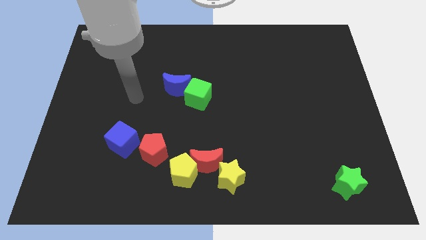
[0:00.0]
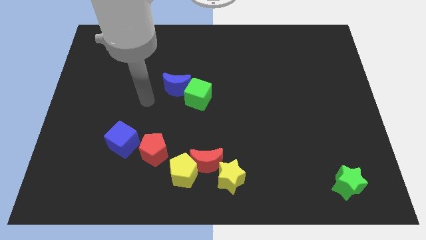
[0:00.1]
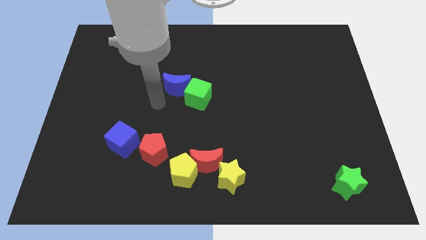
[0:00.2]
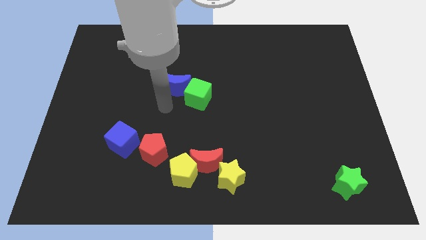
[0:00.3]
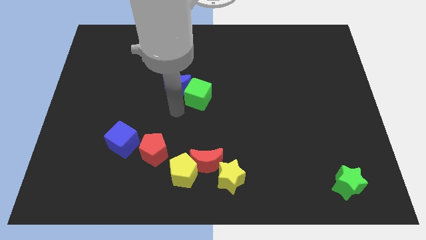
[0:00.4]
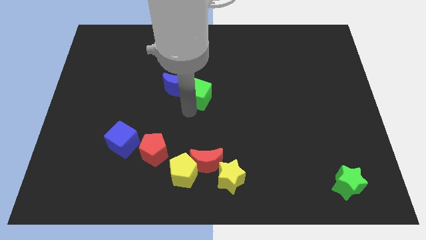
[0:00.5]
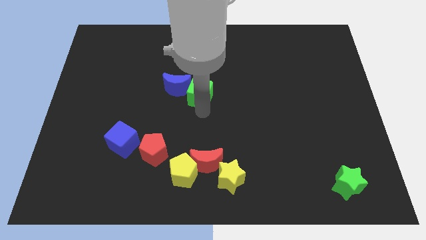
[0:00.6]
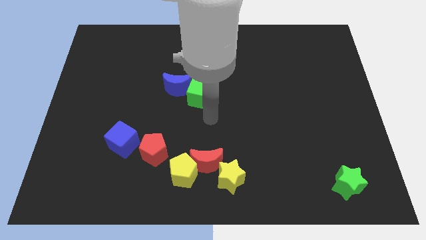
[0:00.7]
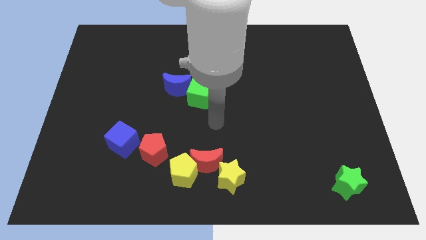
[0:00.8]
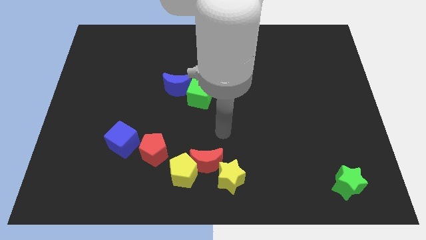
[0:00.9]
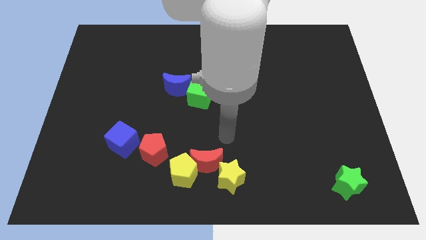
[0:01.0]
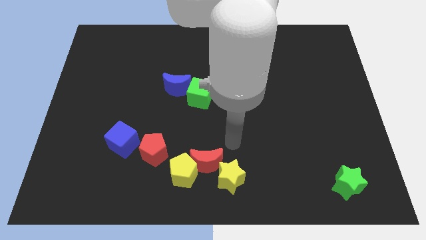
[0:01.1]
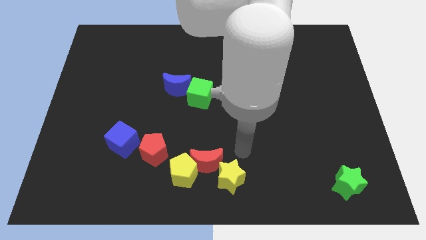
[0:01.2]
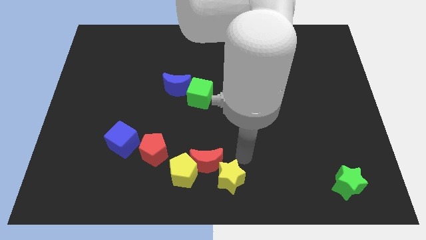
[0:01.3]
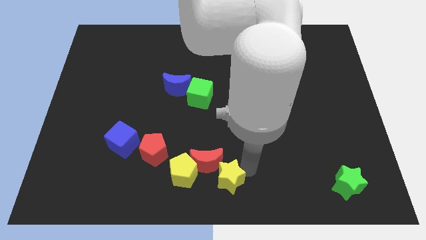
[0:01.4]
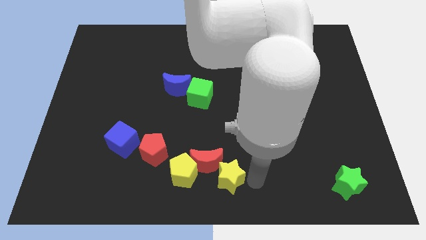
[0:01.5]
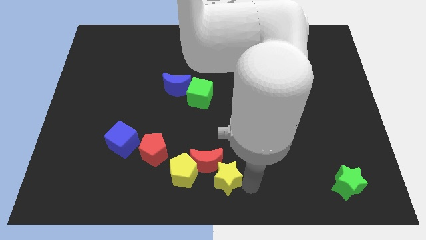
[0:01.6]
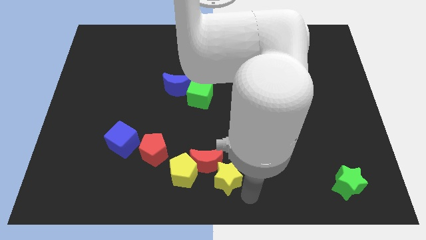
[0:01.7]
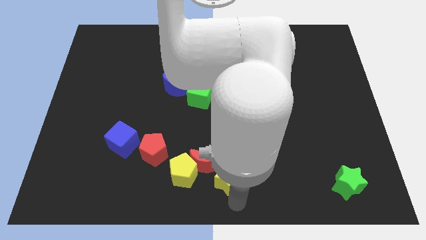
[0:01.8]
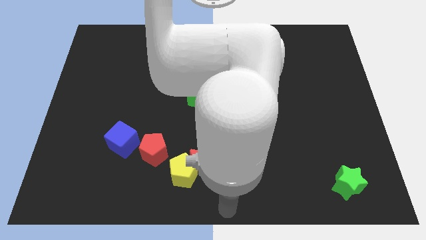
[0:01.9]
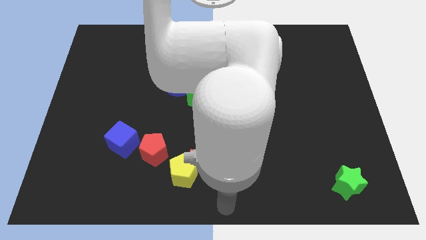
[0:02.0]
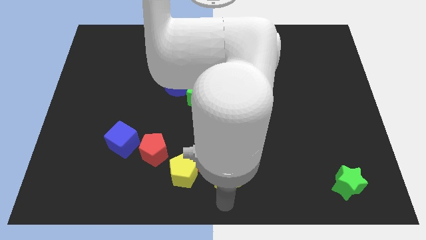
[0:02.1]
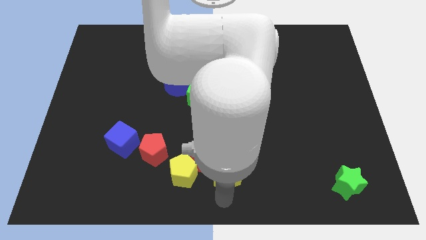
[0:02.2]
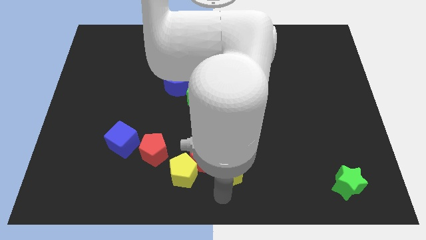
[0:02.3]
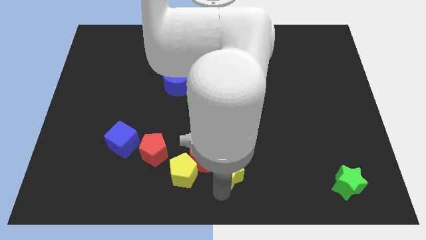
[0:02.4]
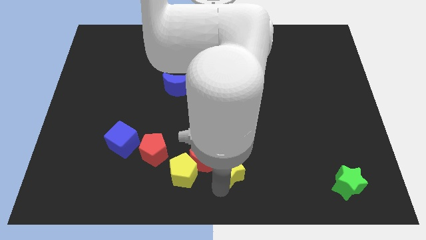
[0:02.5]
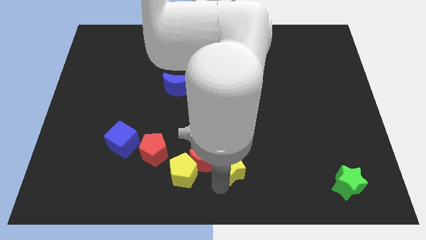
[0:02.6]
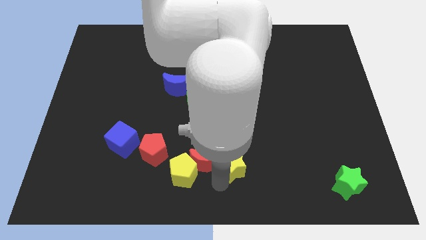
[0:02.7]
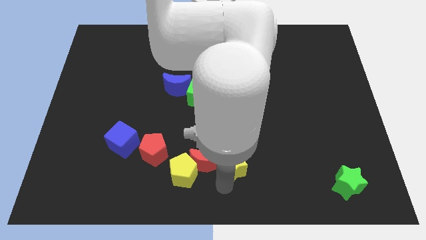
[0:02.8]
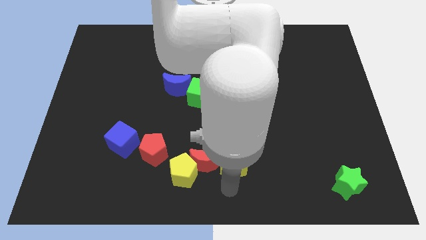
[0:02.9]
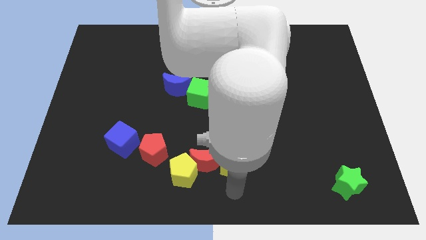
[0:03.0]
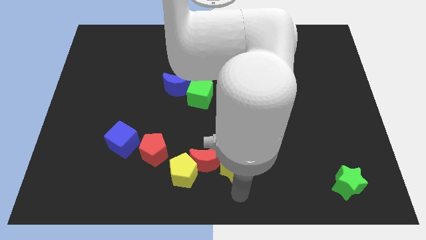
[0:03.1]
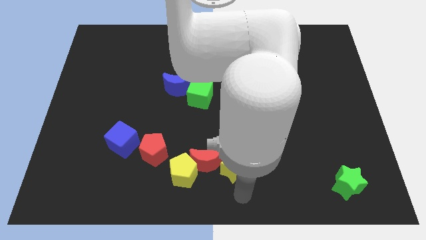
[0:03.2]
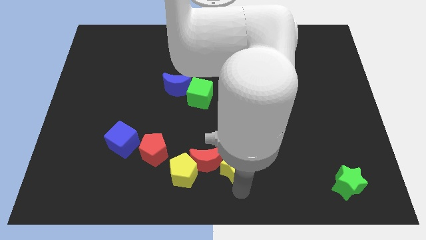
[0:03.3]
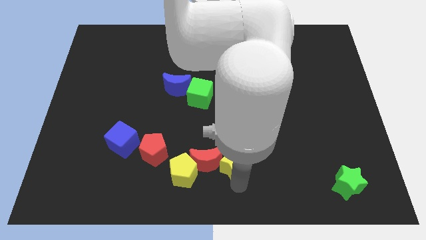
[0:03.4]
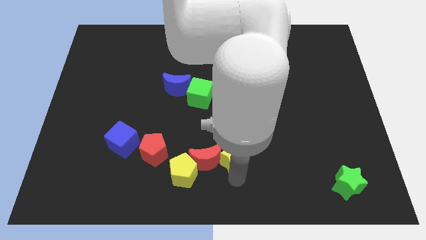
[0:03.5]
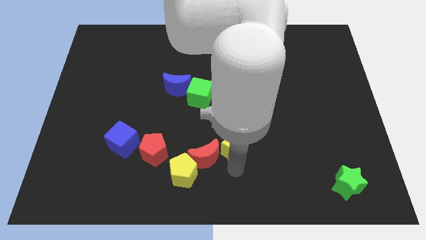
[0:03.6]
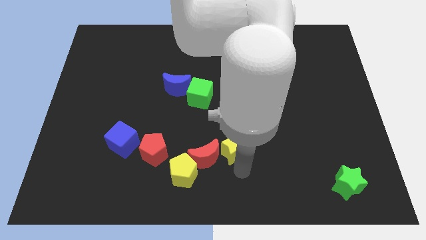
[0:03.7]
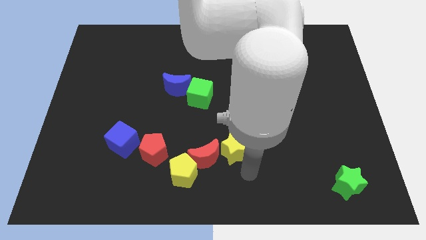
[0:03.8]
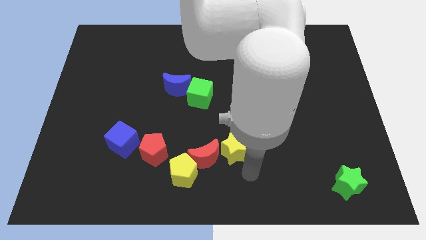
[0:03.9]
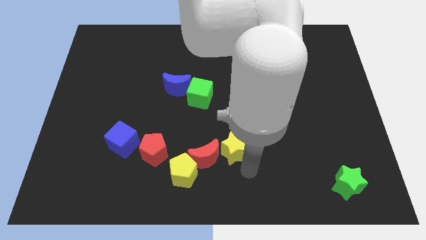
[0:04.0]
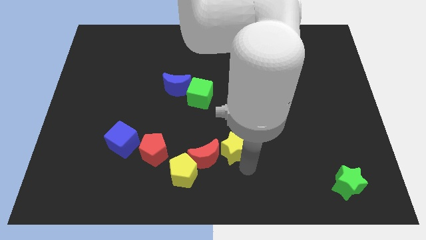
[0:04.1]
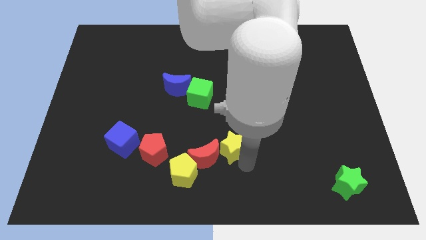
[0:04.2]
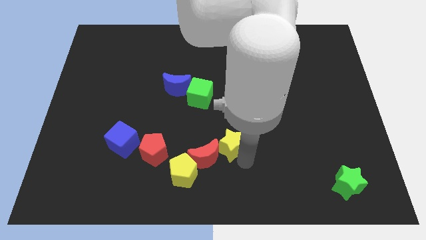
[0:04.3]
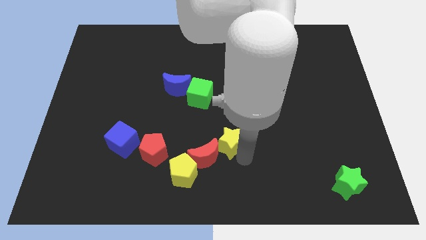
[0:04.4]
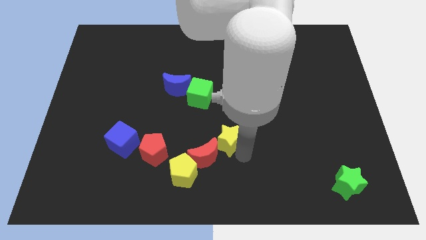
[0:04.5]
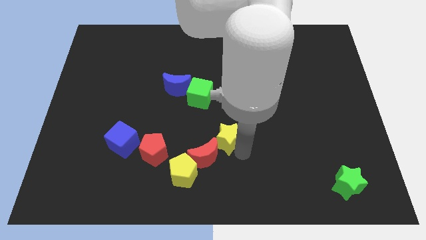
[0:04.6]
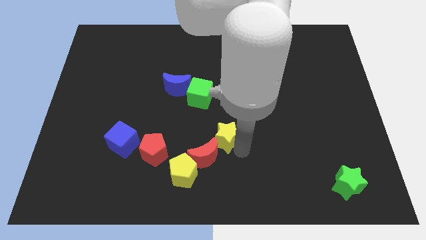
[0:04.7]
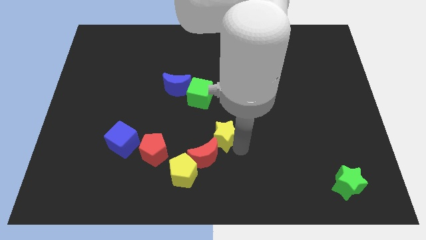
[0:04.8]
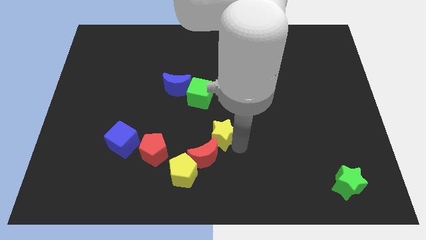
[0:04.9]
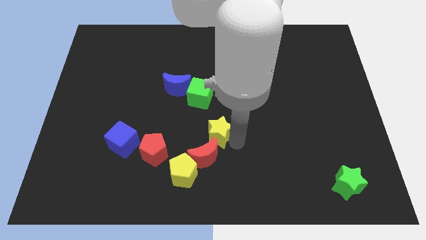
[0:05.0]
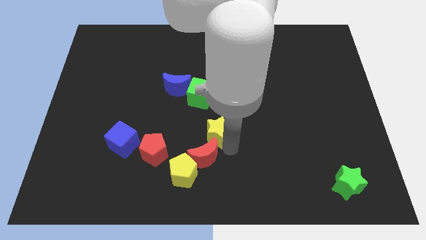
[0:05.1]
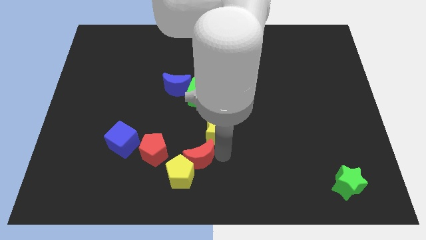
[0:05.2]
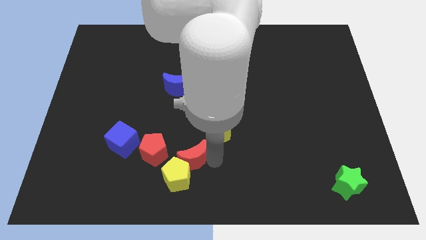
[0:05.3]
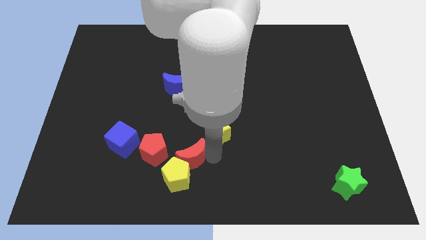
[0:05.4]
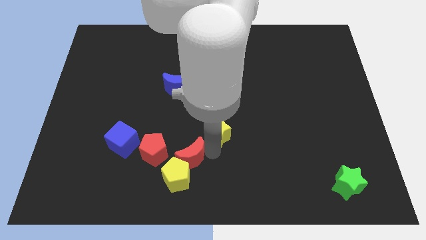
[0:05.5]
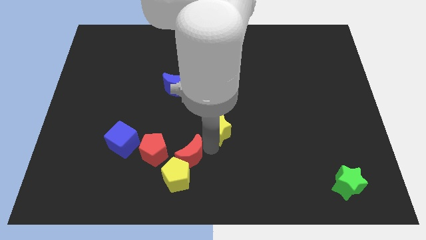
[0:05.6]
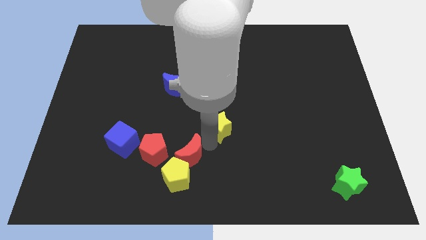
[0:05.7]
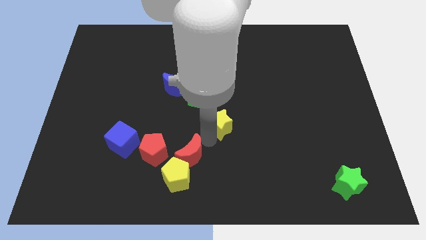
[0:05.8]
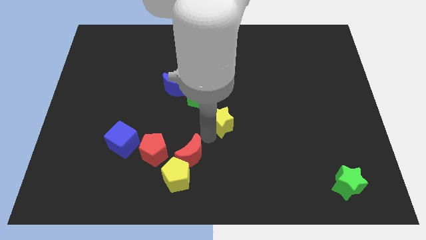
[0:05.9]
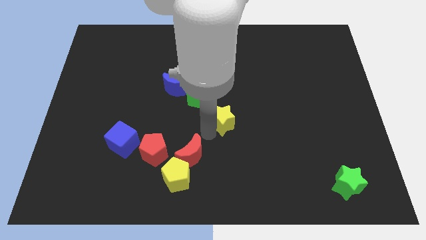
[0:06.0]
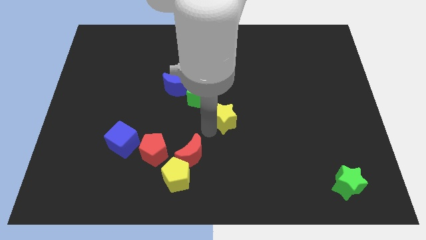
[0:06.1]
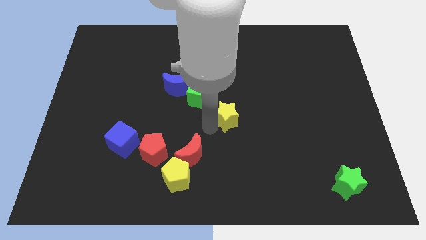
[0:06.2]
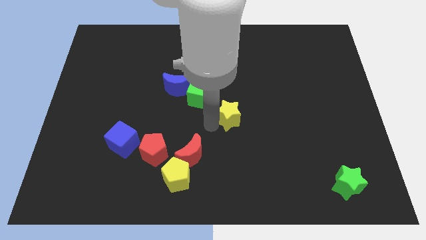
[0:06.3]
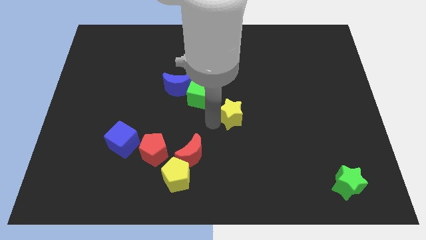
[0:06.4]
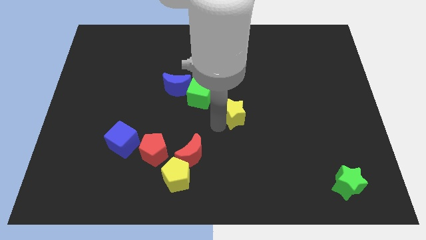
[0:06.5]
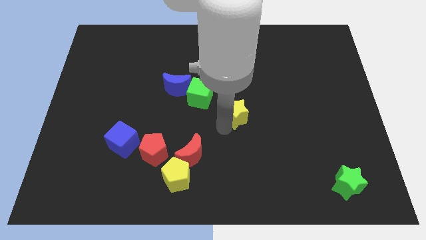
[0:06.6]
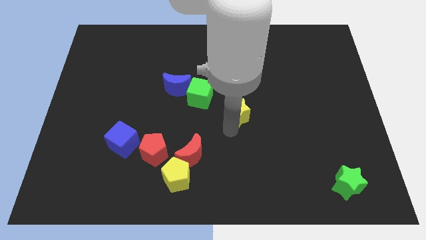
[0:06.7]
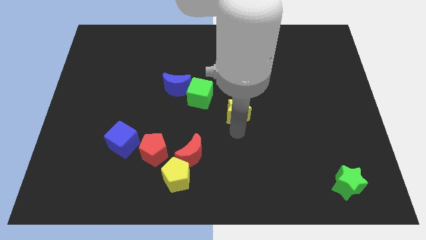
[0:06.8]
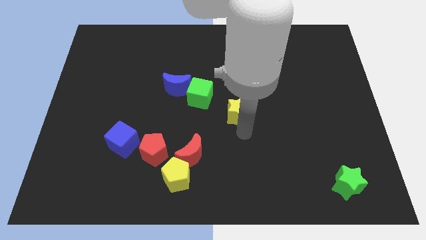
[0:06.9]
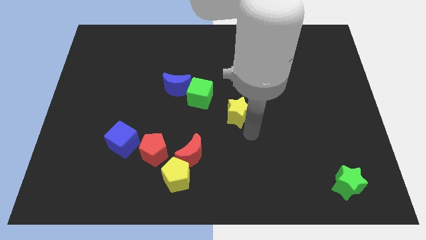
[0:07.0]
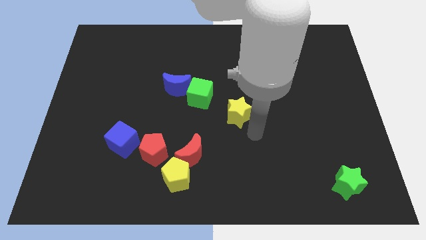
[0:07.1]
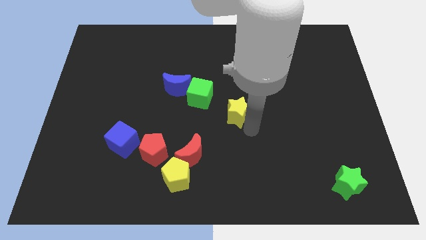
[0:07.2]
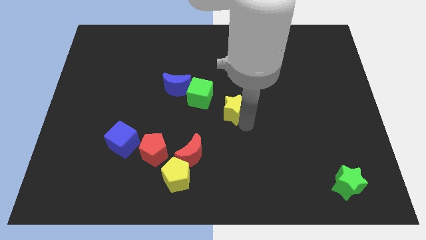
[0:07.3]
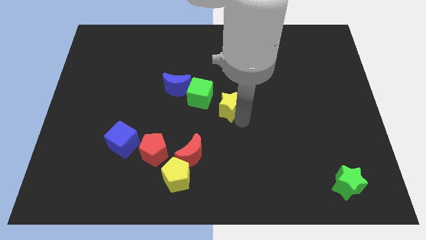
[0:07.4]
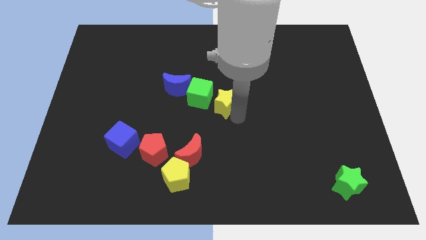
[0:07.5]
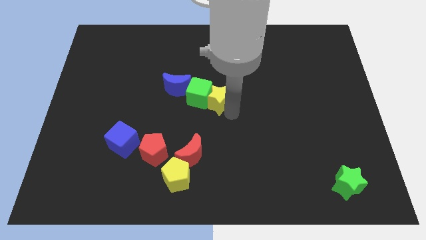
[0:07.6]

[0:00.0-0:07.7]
slide the yellow star just right of the blue moon
